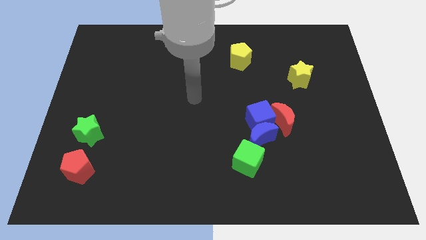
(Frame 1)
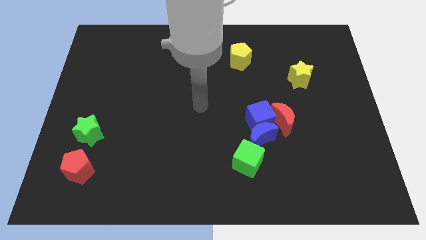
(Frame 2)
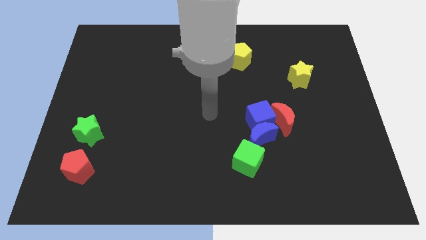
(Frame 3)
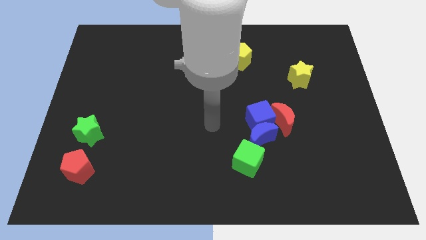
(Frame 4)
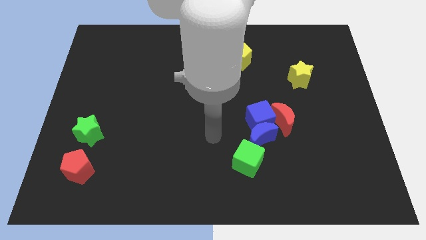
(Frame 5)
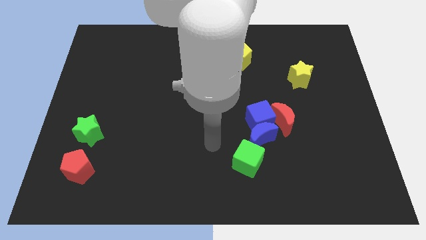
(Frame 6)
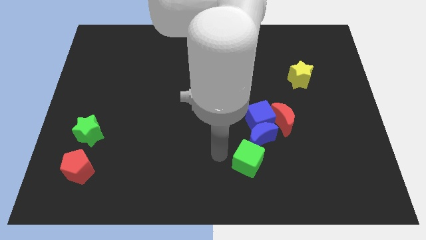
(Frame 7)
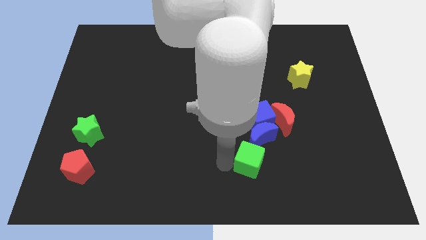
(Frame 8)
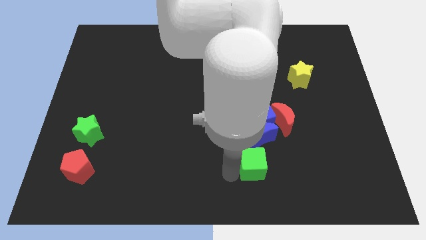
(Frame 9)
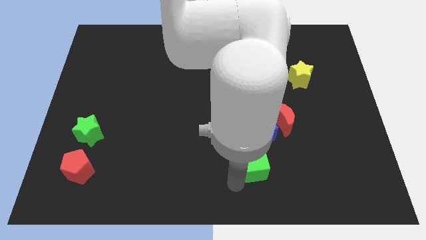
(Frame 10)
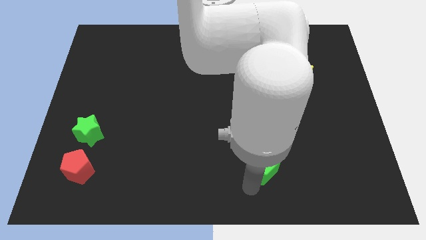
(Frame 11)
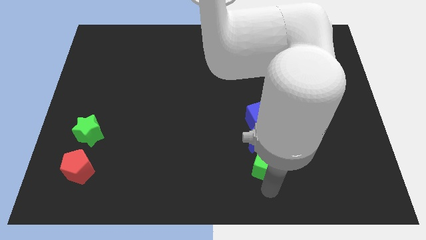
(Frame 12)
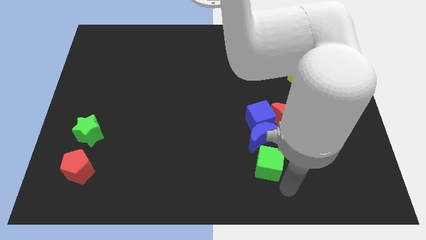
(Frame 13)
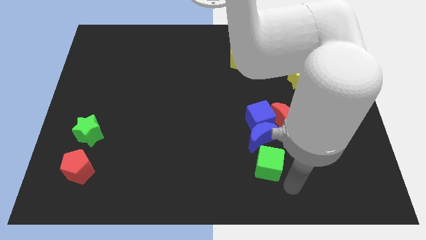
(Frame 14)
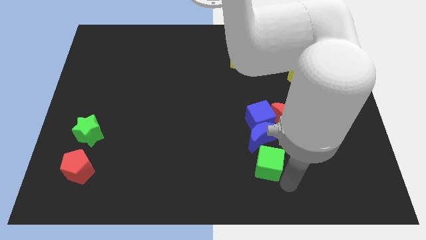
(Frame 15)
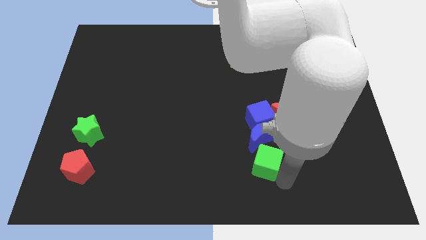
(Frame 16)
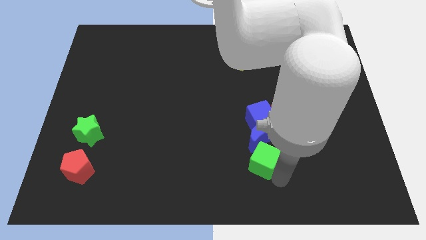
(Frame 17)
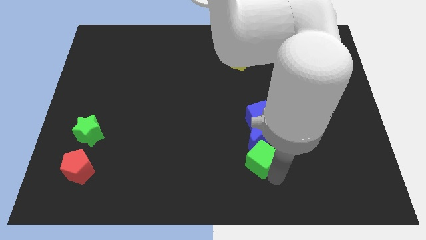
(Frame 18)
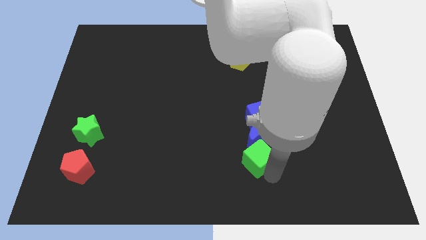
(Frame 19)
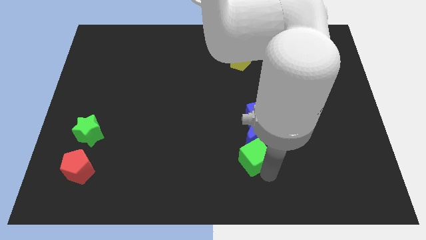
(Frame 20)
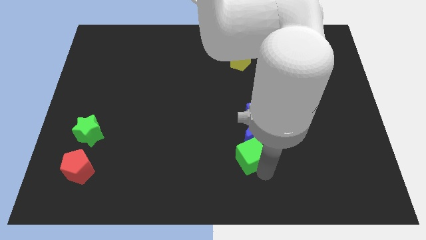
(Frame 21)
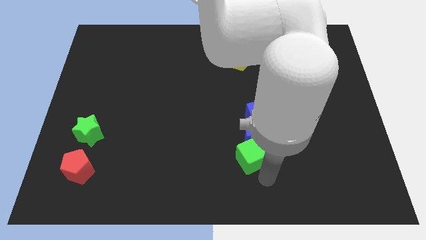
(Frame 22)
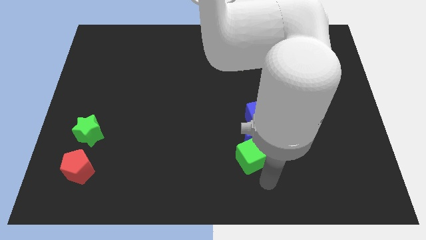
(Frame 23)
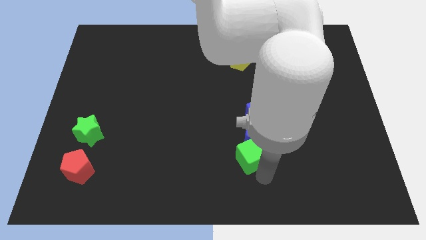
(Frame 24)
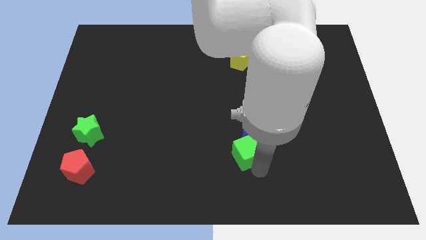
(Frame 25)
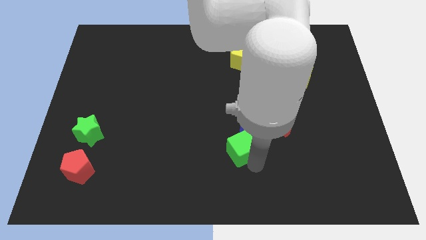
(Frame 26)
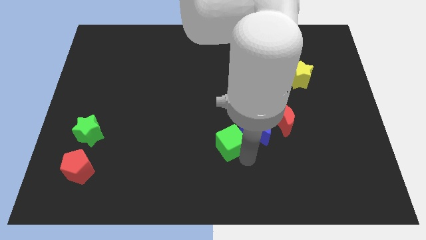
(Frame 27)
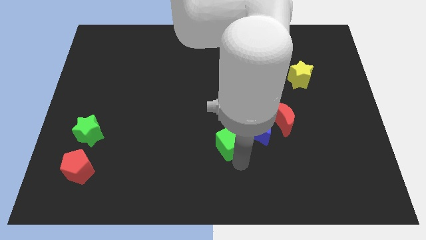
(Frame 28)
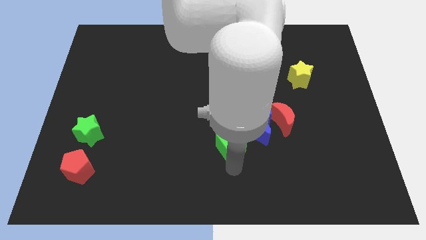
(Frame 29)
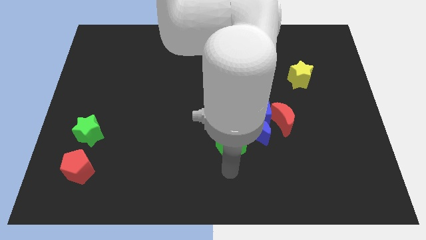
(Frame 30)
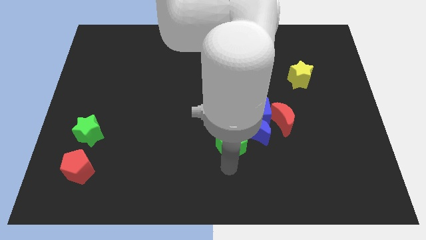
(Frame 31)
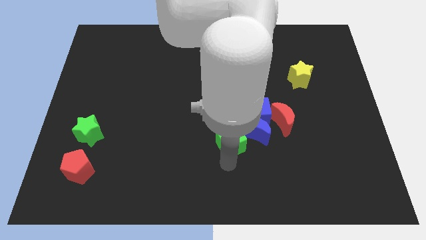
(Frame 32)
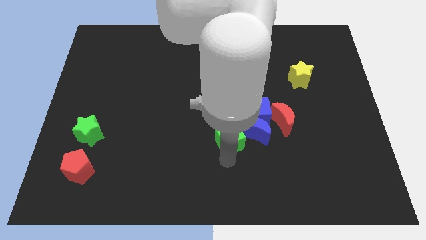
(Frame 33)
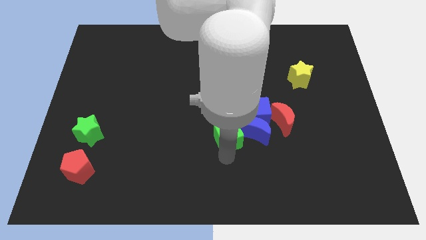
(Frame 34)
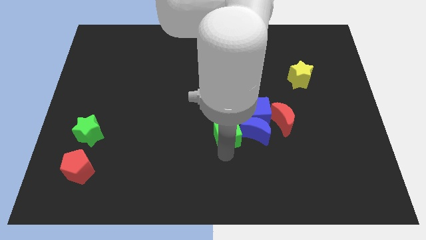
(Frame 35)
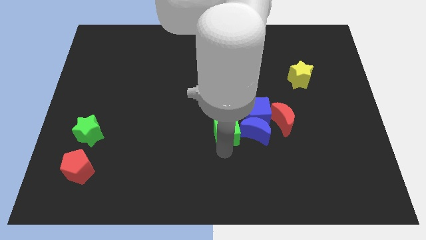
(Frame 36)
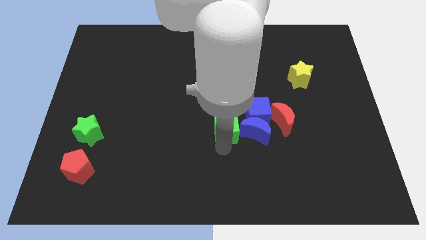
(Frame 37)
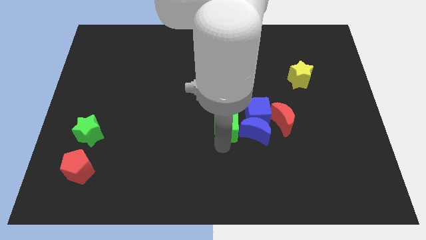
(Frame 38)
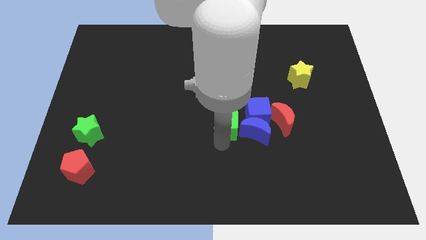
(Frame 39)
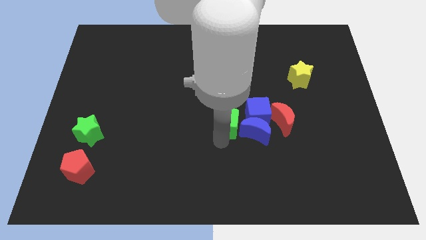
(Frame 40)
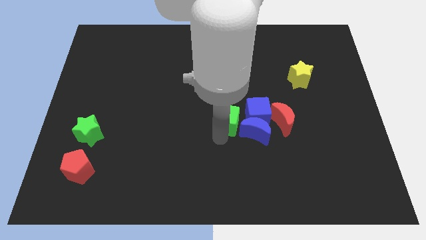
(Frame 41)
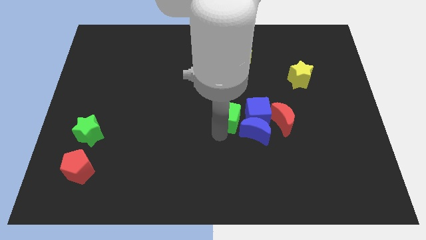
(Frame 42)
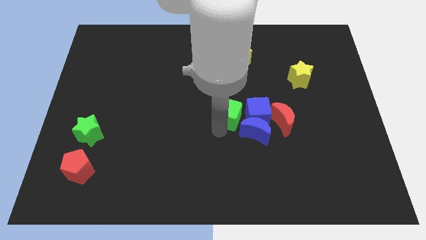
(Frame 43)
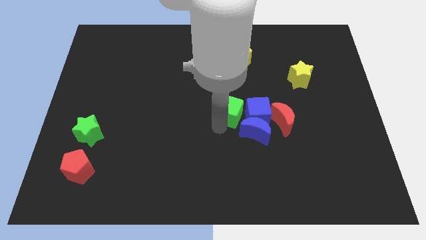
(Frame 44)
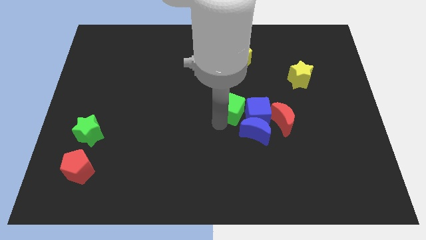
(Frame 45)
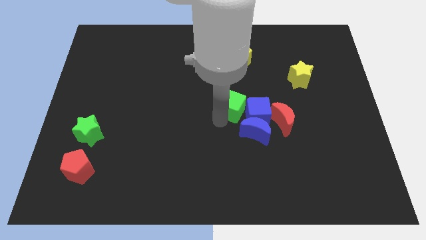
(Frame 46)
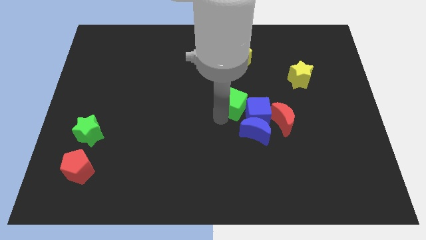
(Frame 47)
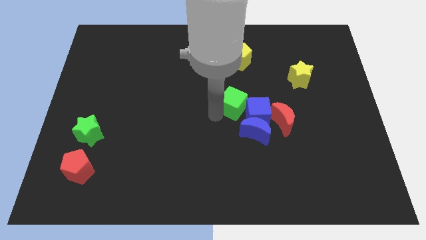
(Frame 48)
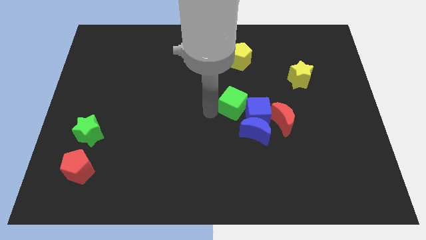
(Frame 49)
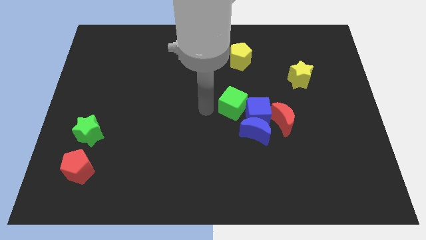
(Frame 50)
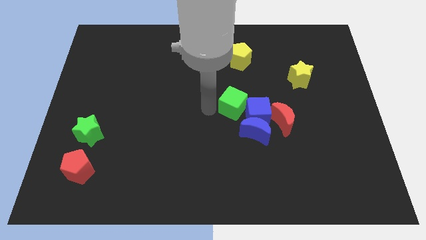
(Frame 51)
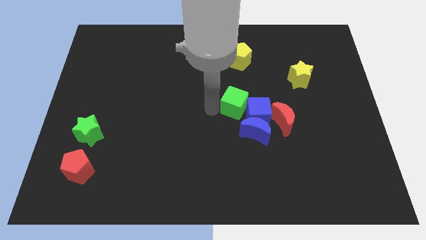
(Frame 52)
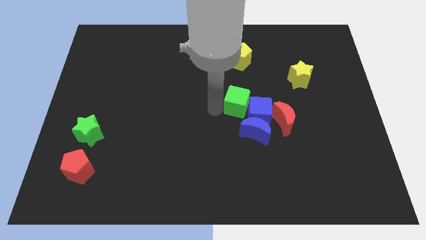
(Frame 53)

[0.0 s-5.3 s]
slide the green cube to the top left of the red moon

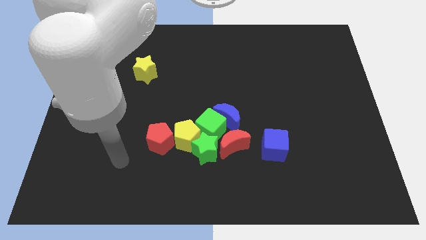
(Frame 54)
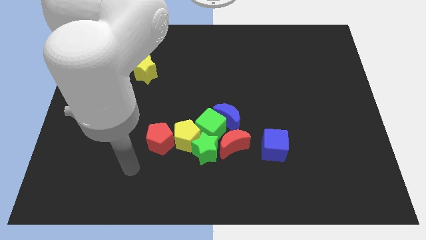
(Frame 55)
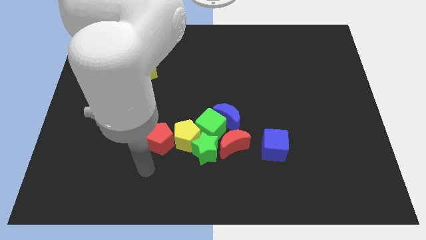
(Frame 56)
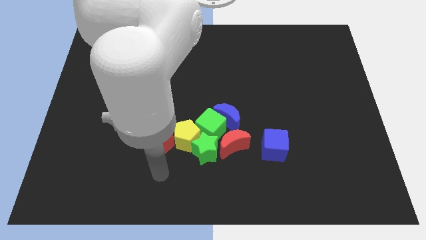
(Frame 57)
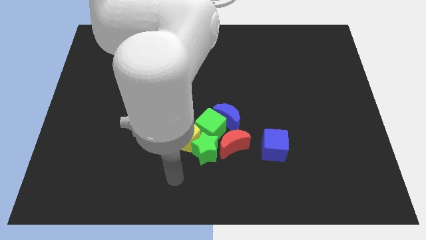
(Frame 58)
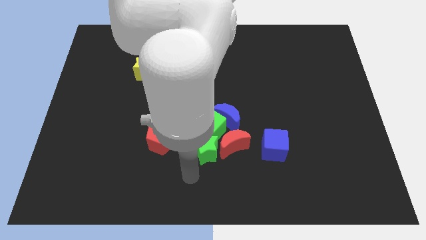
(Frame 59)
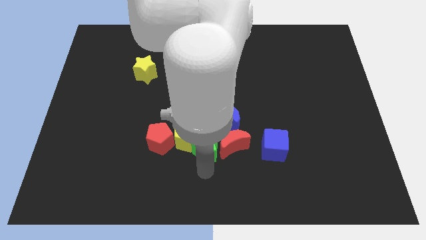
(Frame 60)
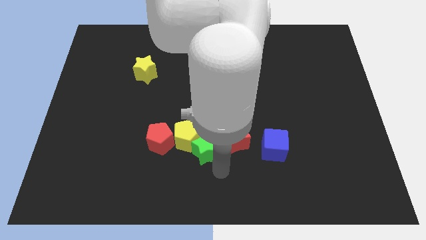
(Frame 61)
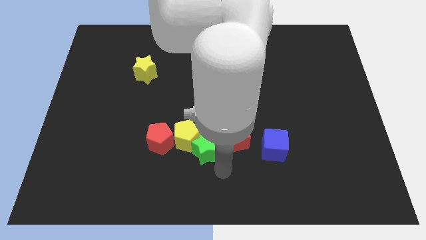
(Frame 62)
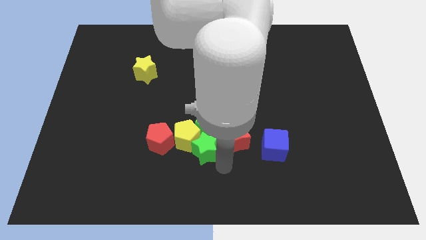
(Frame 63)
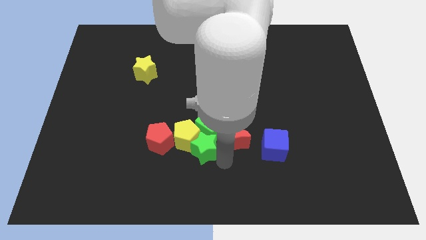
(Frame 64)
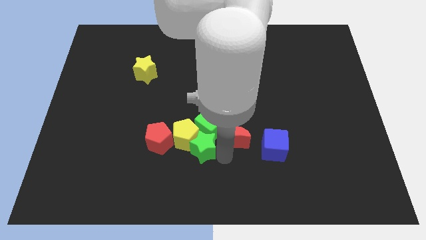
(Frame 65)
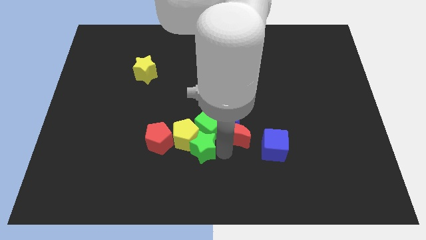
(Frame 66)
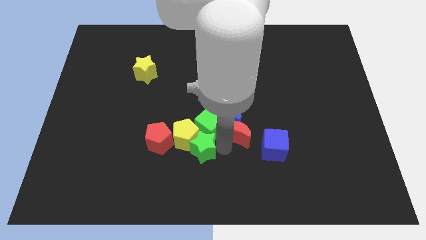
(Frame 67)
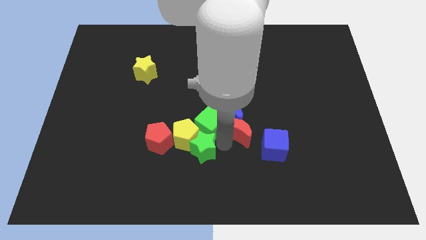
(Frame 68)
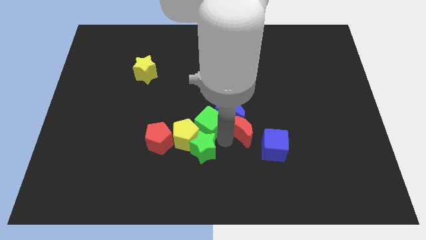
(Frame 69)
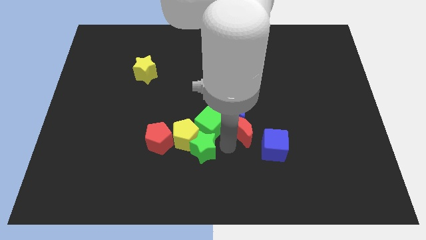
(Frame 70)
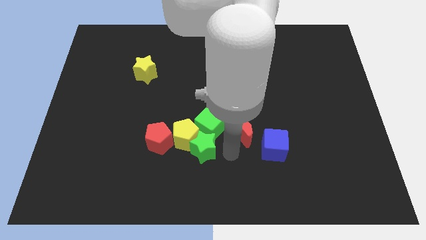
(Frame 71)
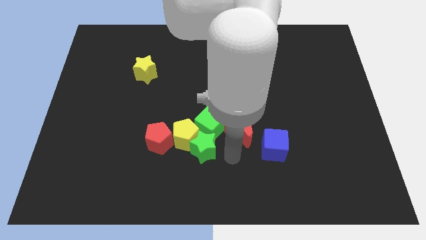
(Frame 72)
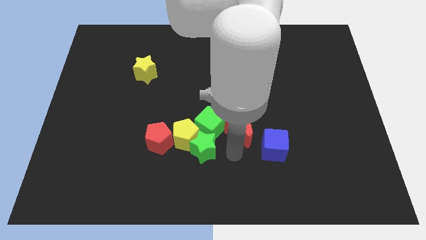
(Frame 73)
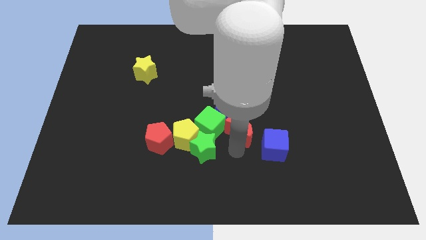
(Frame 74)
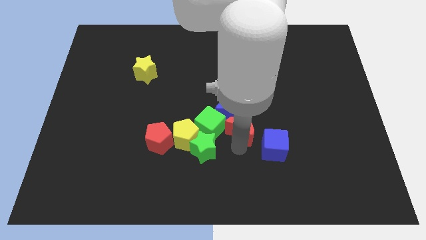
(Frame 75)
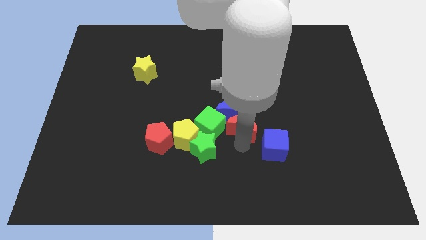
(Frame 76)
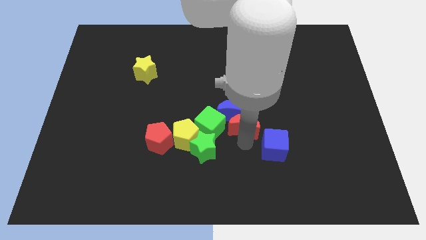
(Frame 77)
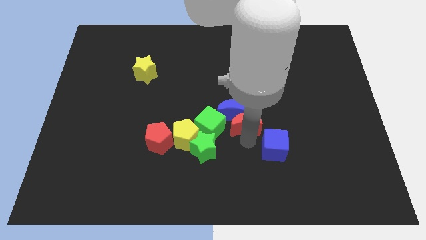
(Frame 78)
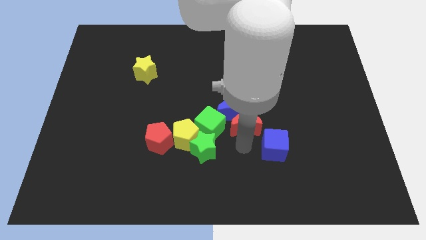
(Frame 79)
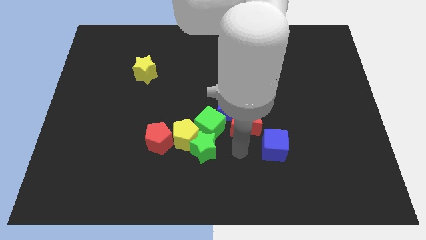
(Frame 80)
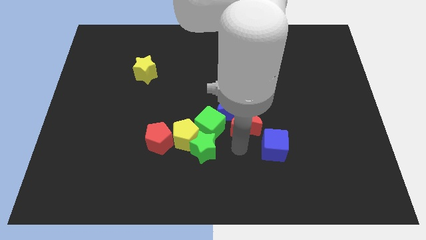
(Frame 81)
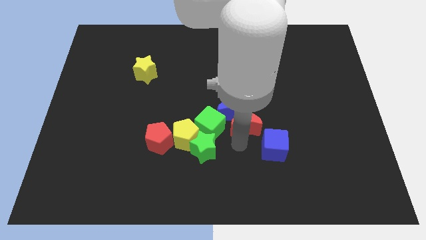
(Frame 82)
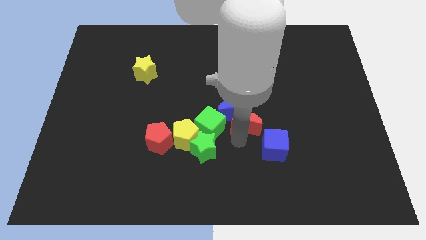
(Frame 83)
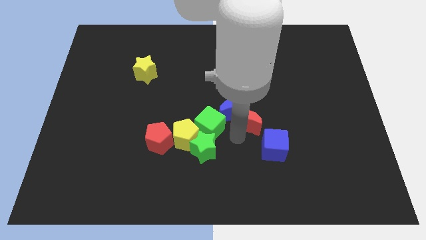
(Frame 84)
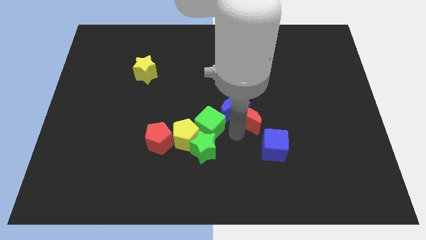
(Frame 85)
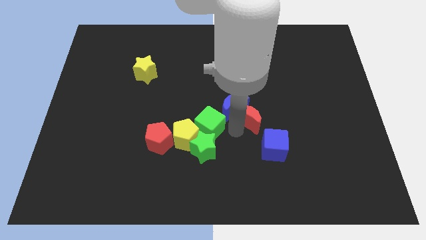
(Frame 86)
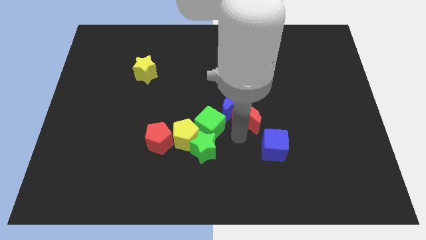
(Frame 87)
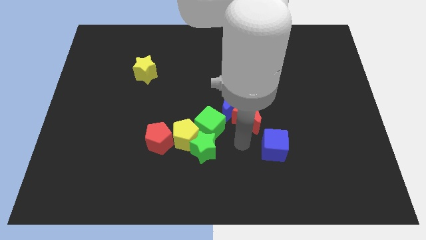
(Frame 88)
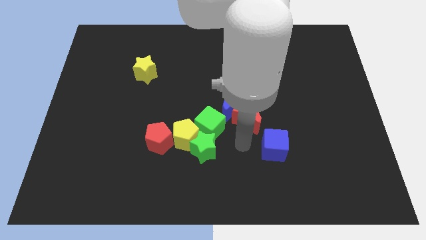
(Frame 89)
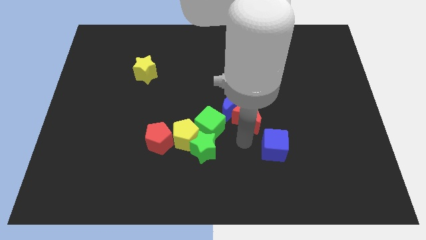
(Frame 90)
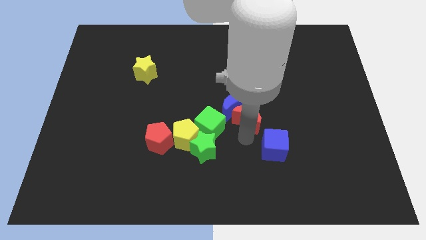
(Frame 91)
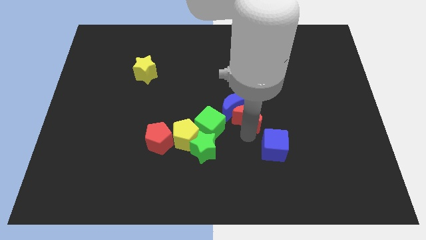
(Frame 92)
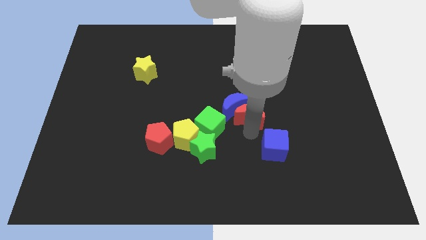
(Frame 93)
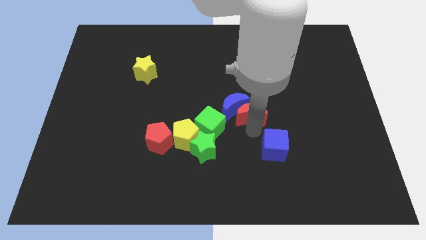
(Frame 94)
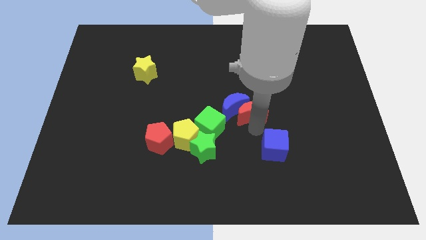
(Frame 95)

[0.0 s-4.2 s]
push the red moon to the top right of the blue moon
